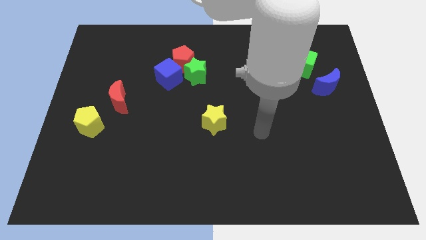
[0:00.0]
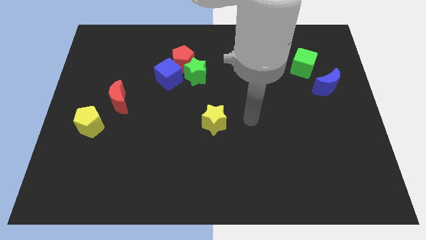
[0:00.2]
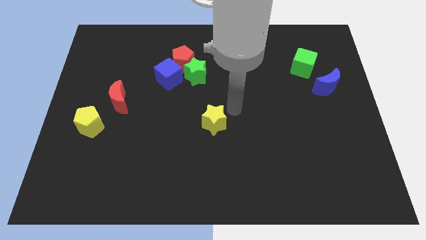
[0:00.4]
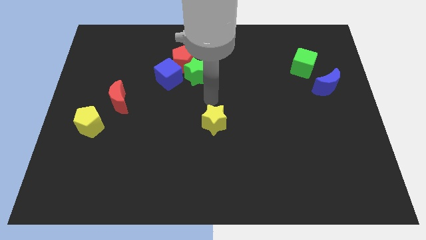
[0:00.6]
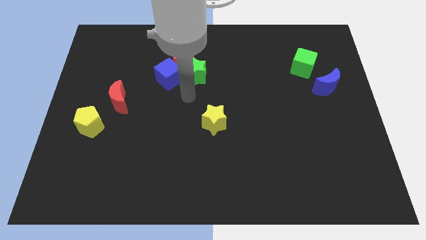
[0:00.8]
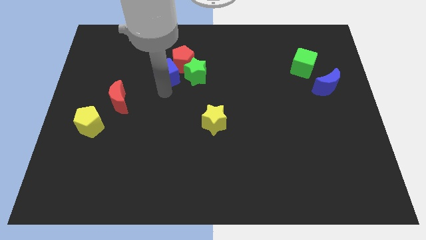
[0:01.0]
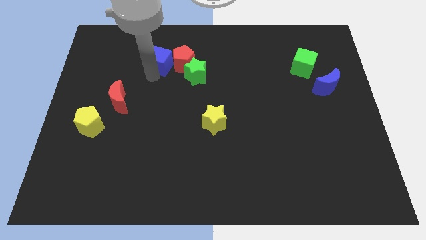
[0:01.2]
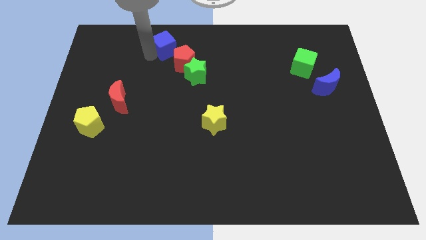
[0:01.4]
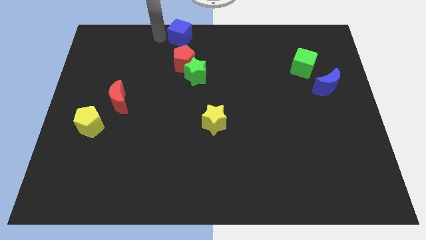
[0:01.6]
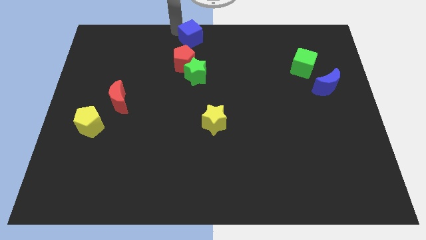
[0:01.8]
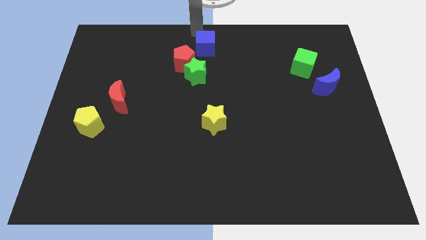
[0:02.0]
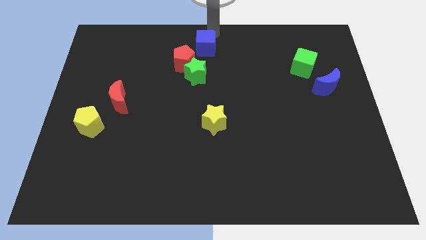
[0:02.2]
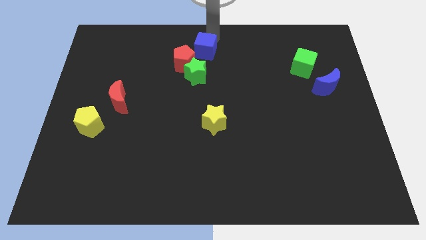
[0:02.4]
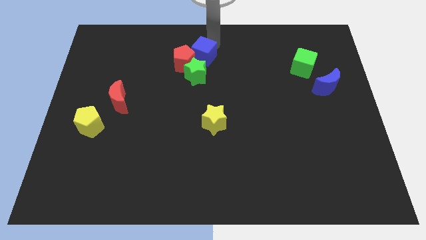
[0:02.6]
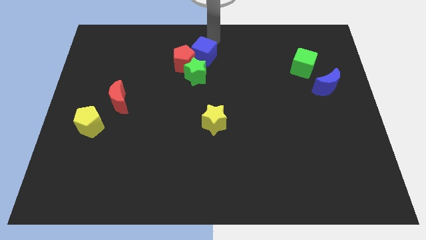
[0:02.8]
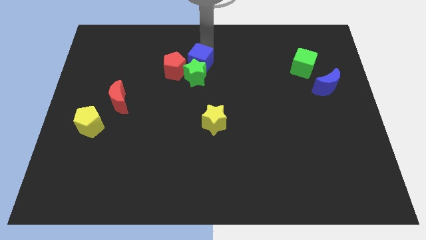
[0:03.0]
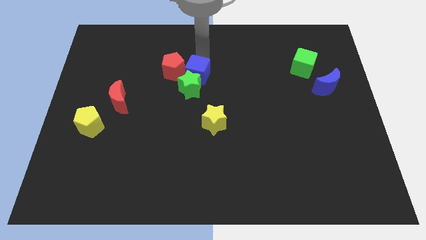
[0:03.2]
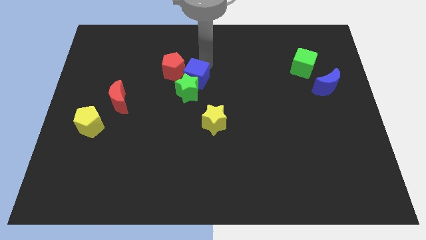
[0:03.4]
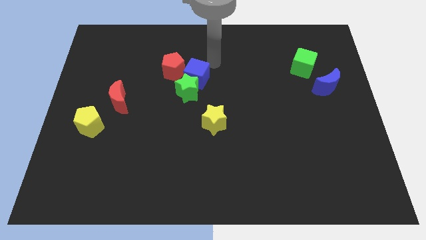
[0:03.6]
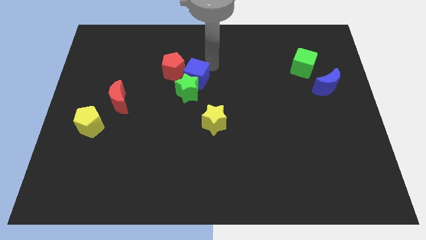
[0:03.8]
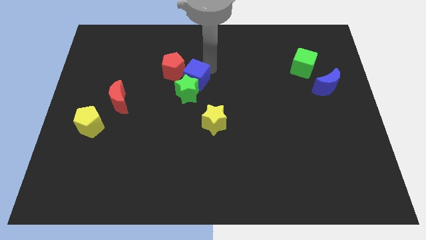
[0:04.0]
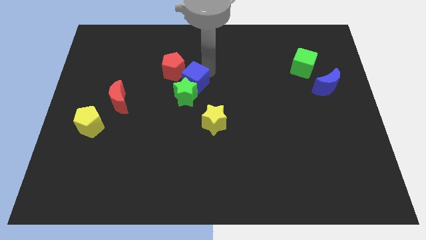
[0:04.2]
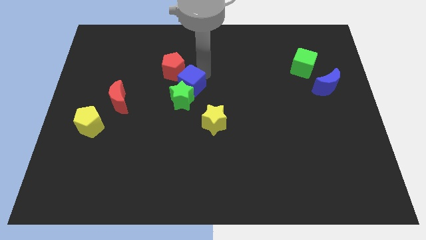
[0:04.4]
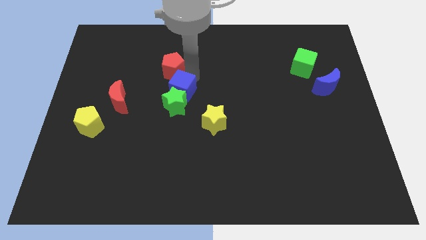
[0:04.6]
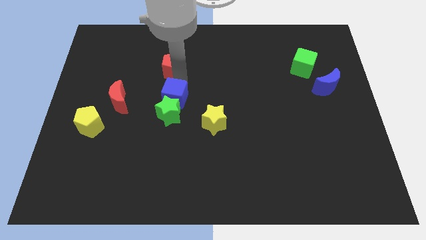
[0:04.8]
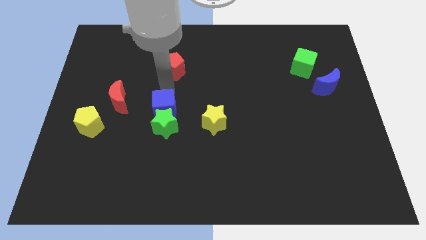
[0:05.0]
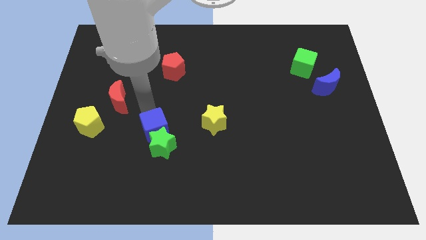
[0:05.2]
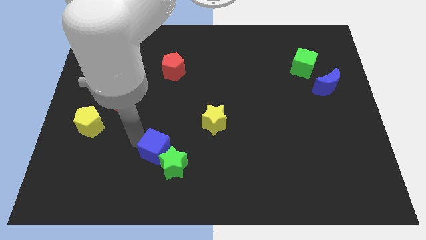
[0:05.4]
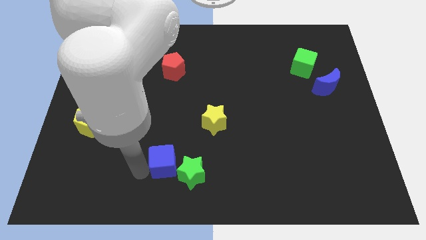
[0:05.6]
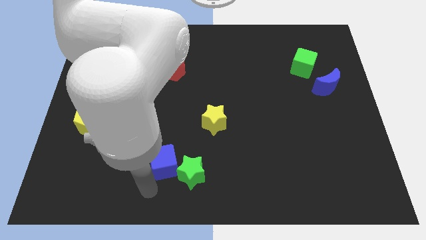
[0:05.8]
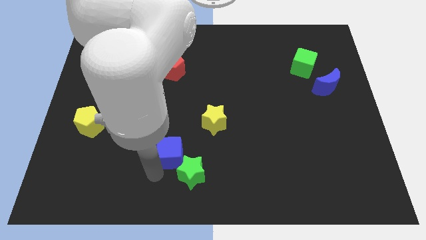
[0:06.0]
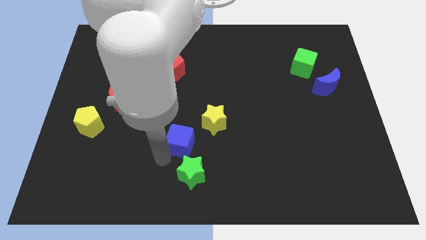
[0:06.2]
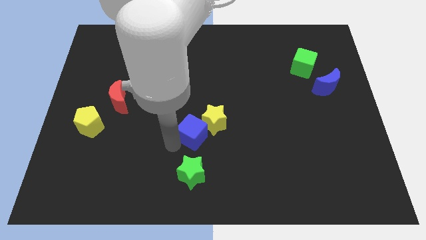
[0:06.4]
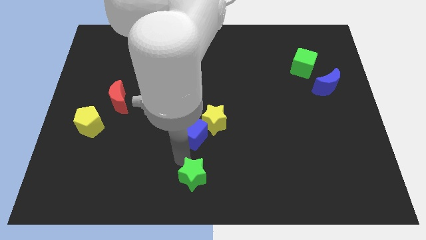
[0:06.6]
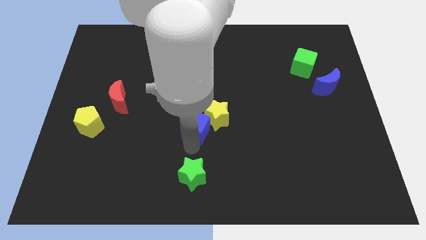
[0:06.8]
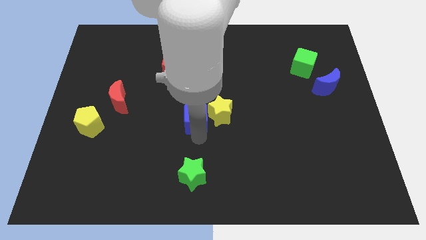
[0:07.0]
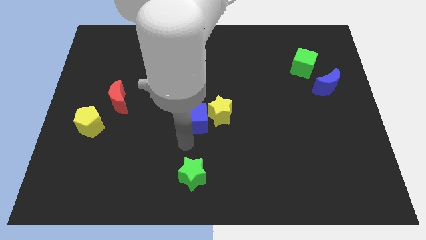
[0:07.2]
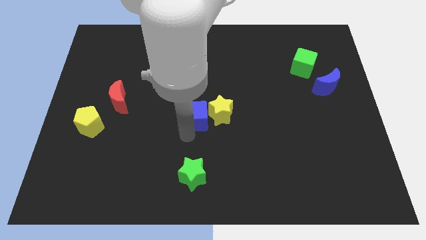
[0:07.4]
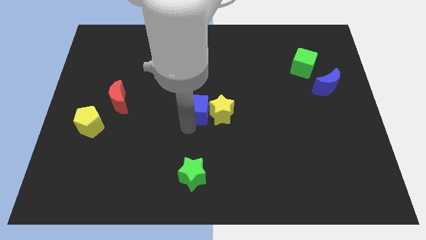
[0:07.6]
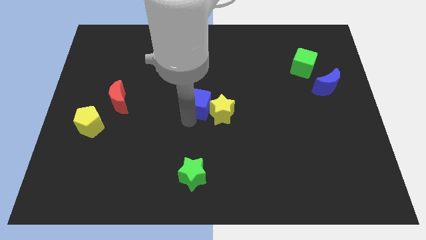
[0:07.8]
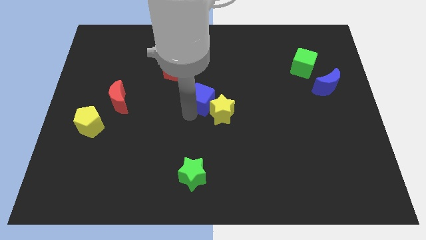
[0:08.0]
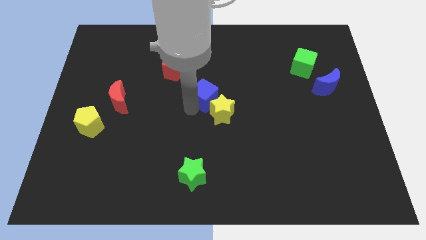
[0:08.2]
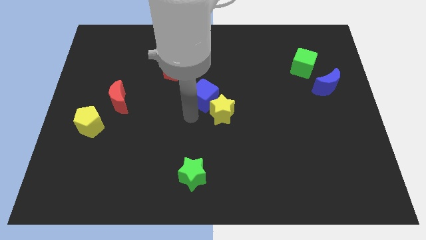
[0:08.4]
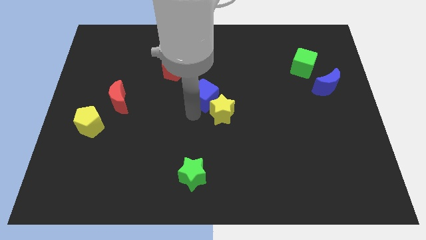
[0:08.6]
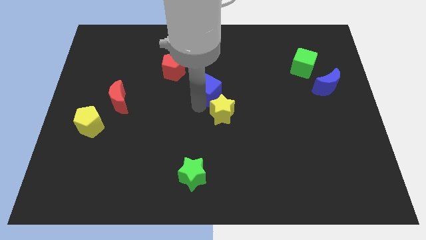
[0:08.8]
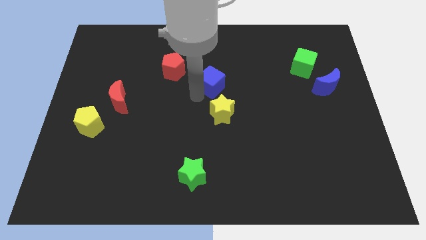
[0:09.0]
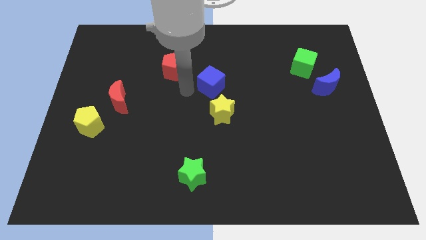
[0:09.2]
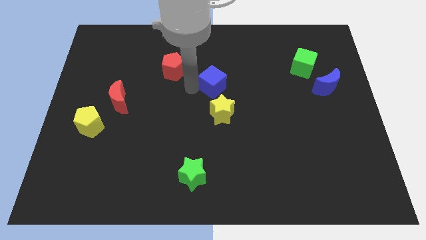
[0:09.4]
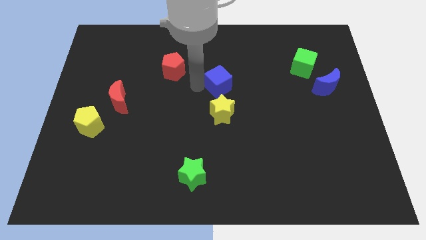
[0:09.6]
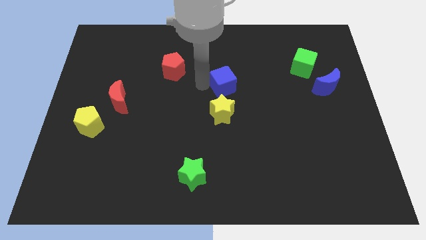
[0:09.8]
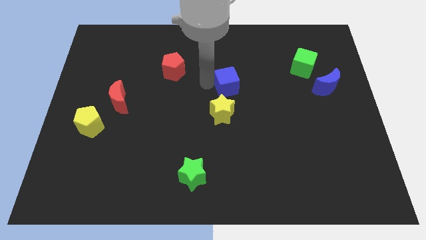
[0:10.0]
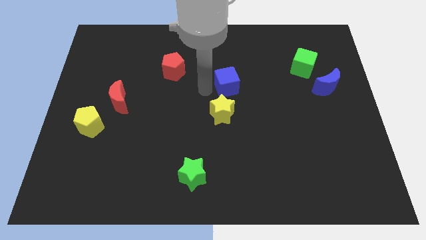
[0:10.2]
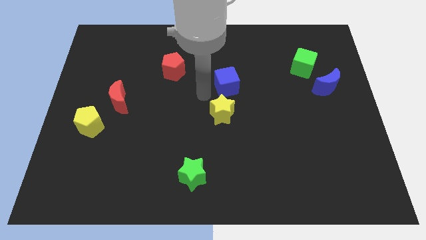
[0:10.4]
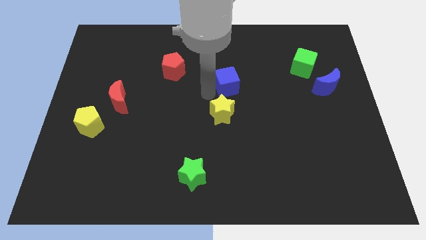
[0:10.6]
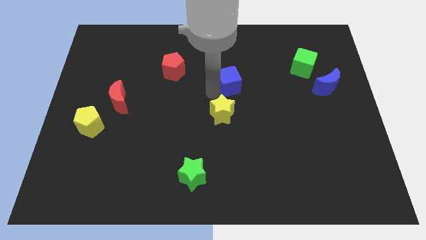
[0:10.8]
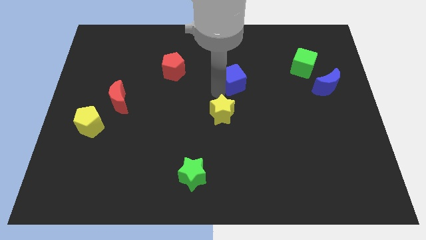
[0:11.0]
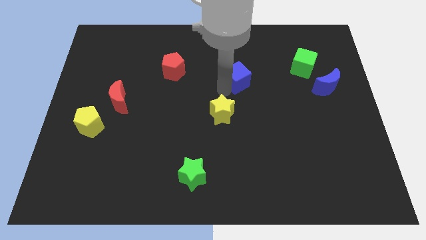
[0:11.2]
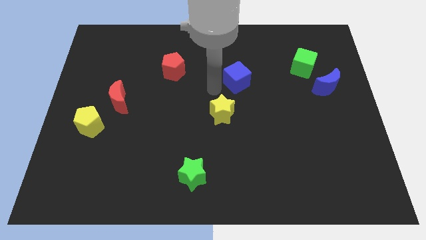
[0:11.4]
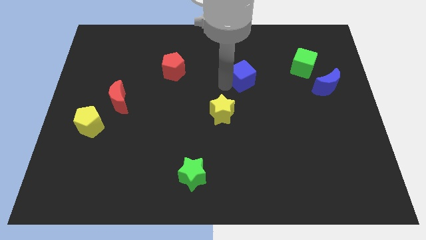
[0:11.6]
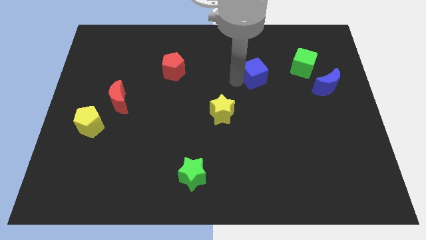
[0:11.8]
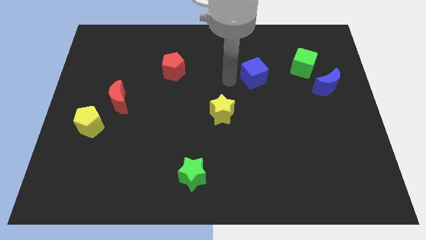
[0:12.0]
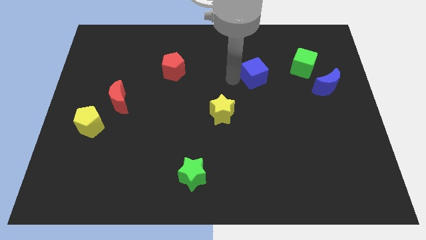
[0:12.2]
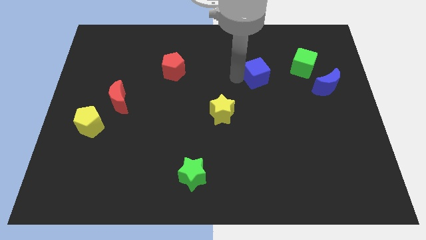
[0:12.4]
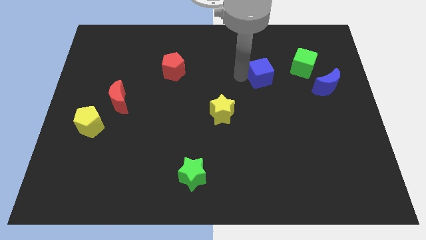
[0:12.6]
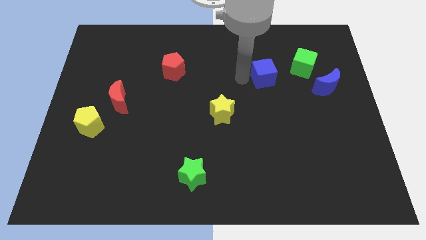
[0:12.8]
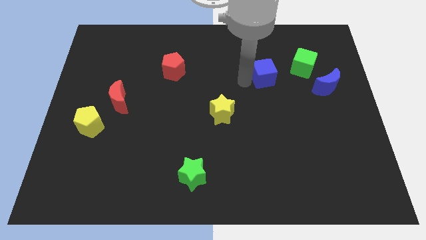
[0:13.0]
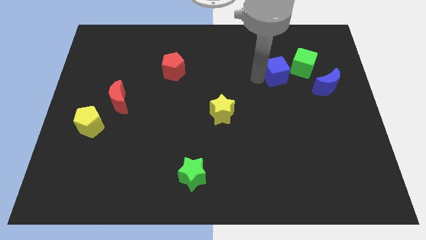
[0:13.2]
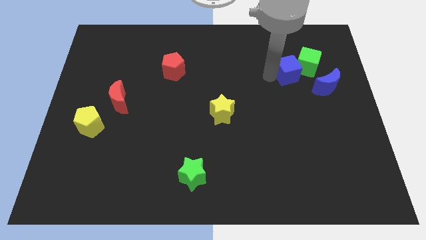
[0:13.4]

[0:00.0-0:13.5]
put the blue cube next to the green cube
